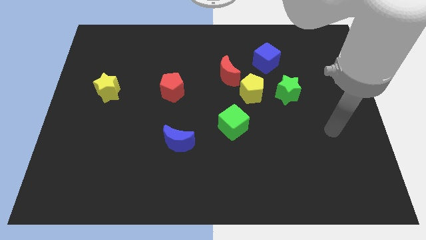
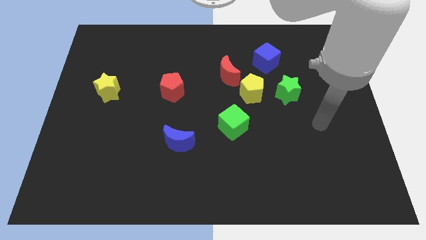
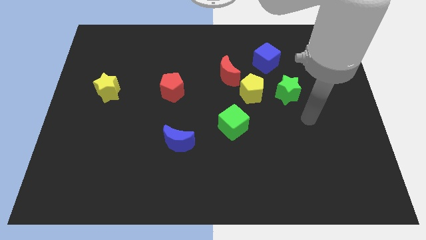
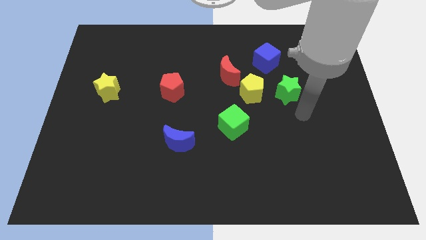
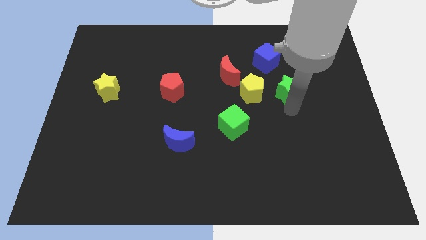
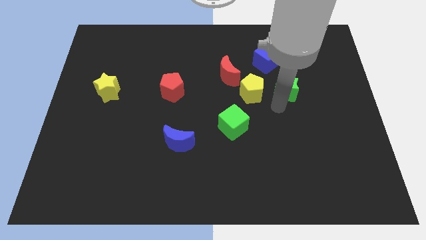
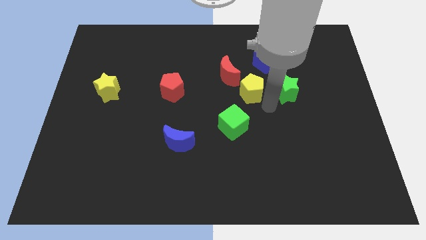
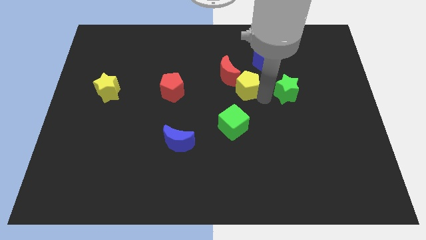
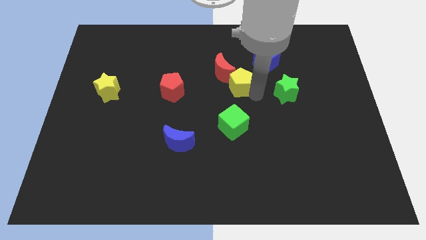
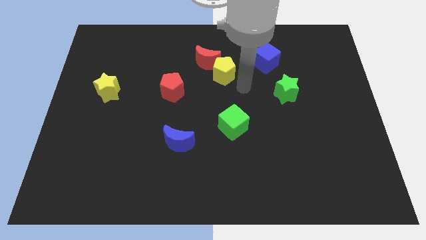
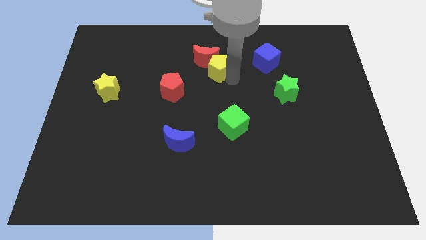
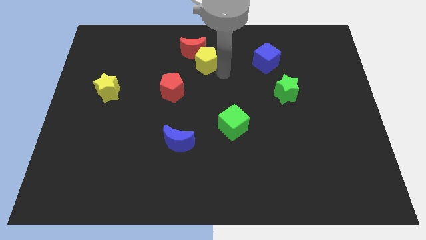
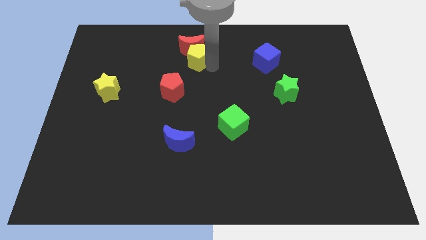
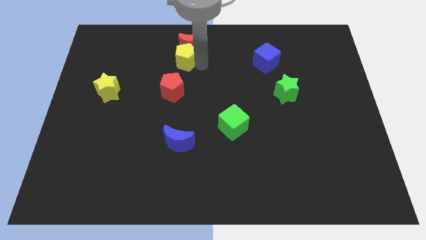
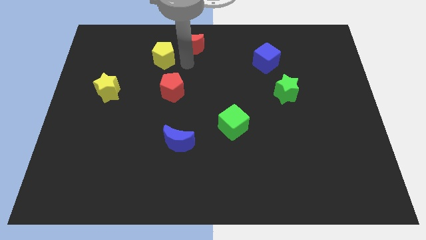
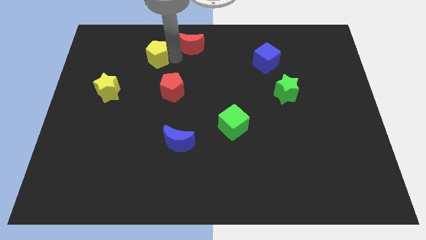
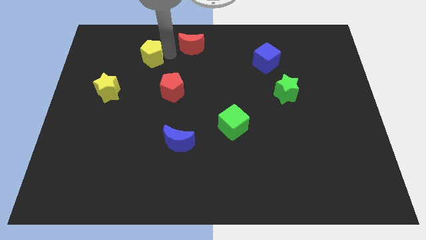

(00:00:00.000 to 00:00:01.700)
separate the red moon from the yellow pentagon
